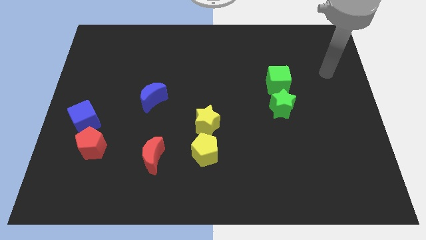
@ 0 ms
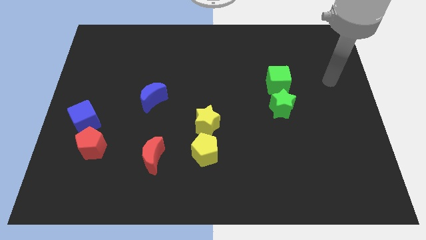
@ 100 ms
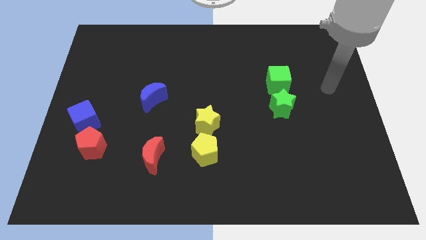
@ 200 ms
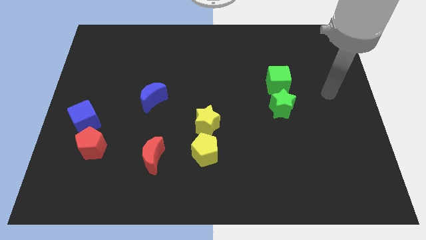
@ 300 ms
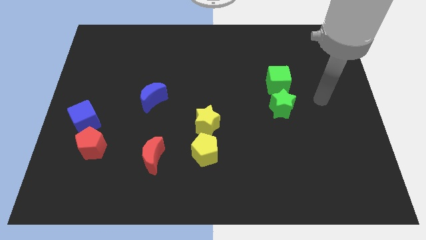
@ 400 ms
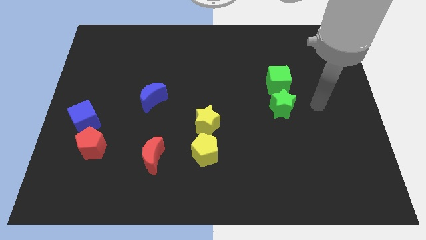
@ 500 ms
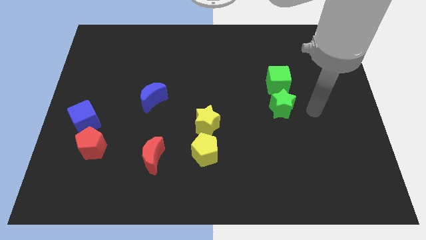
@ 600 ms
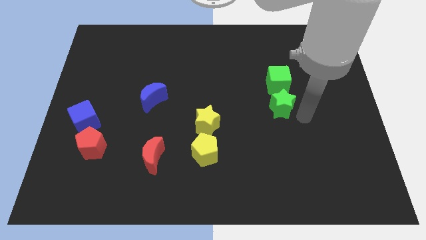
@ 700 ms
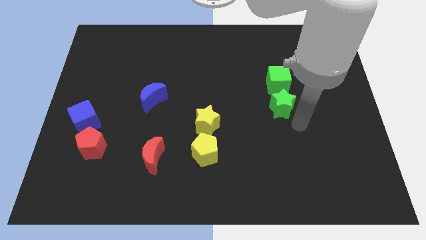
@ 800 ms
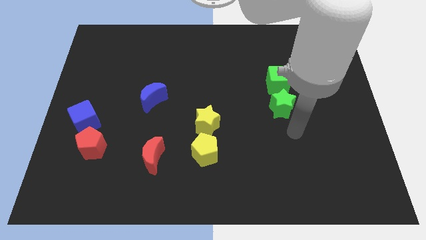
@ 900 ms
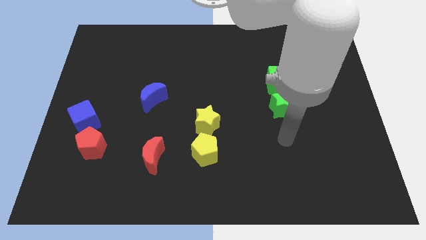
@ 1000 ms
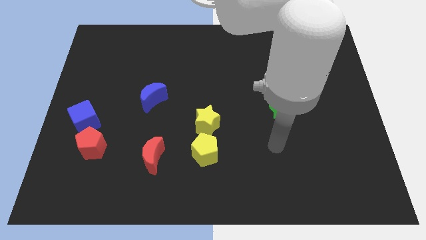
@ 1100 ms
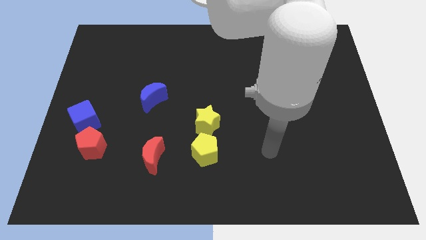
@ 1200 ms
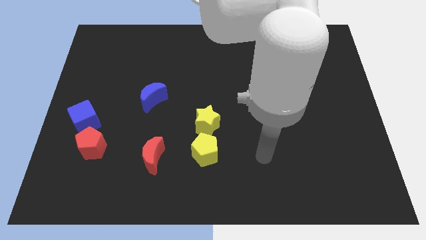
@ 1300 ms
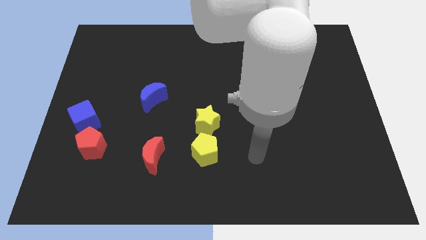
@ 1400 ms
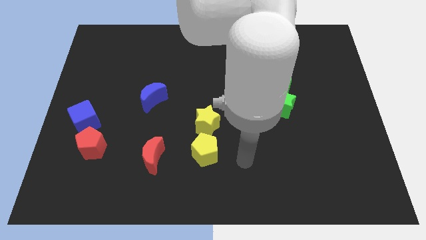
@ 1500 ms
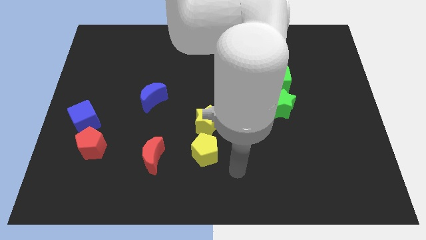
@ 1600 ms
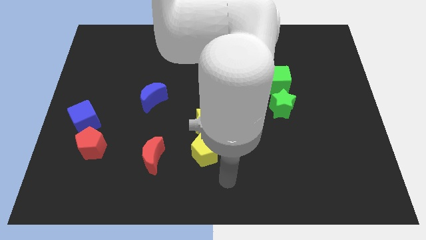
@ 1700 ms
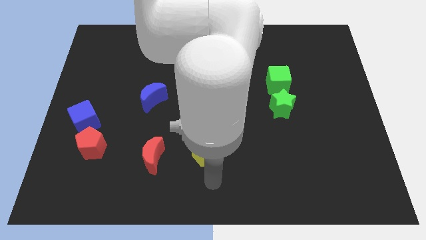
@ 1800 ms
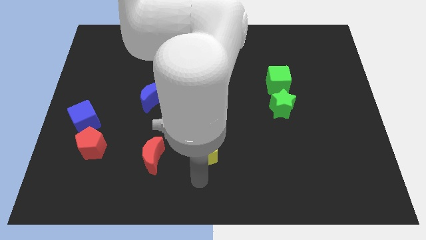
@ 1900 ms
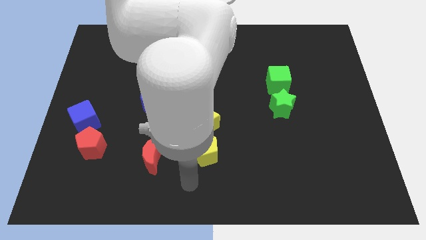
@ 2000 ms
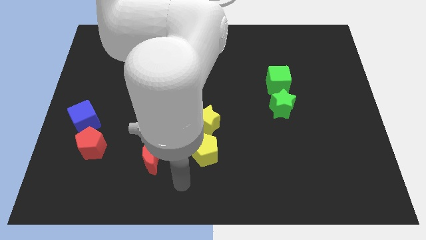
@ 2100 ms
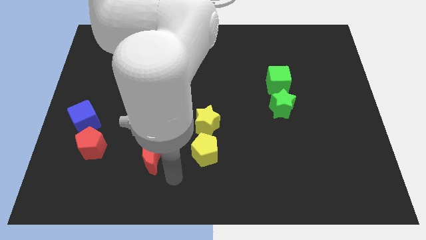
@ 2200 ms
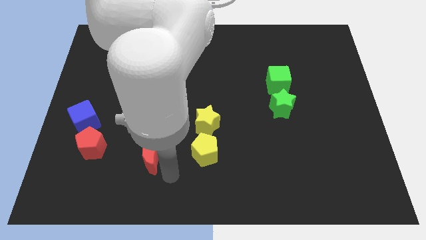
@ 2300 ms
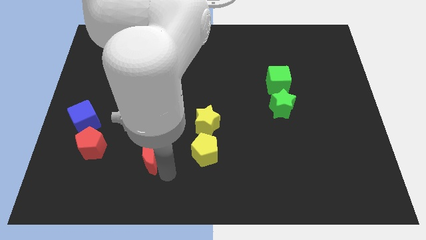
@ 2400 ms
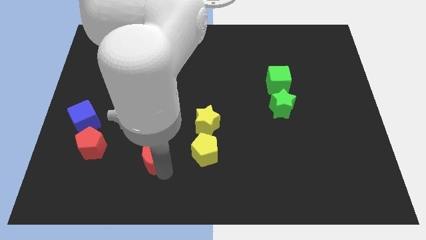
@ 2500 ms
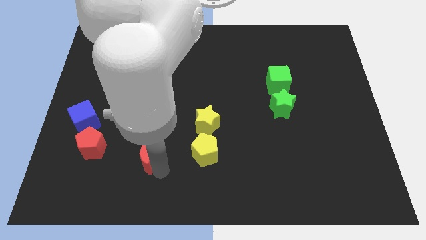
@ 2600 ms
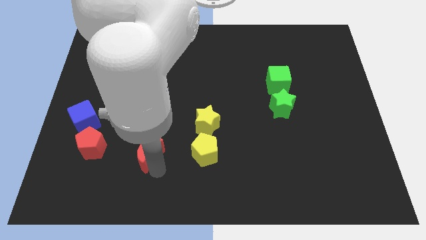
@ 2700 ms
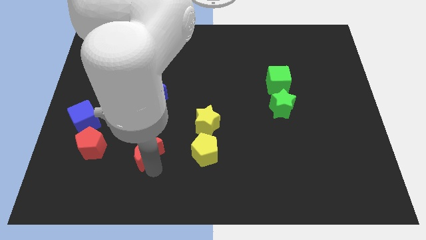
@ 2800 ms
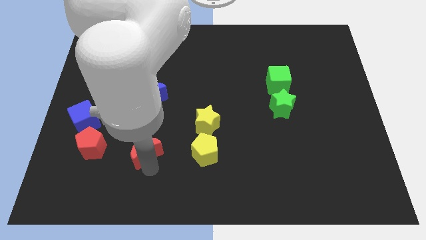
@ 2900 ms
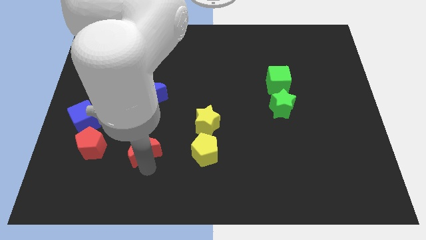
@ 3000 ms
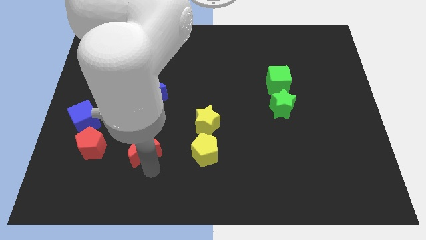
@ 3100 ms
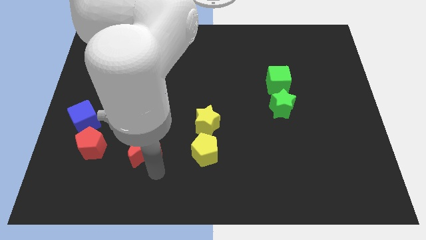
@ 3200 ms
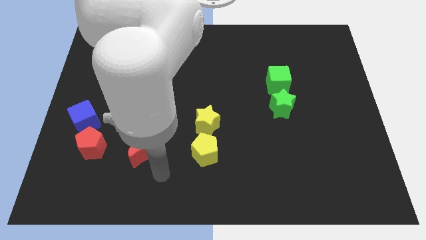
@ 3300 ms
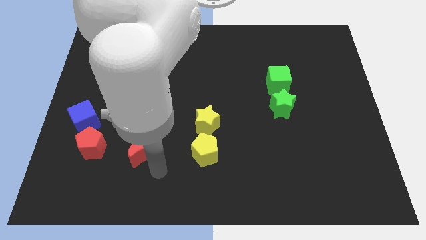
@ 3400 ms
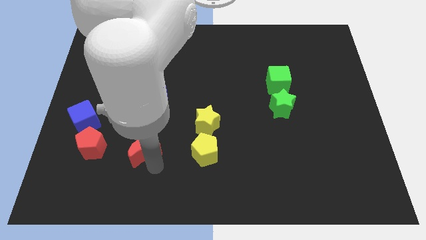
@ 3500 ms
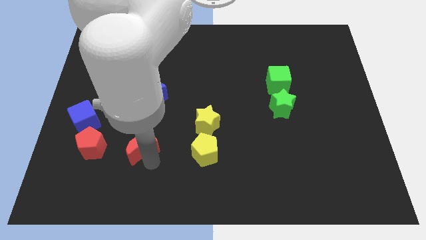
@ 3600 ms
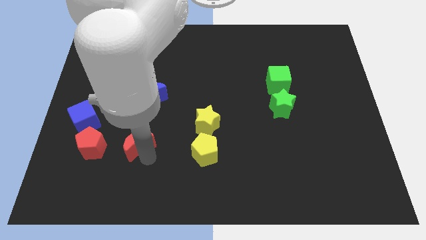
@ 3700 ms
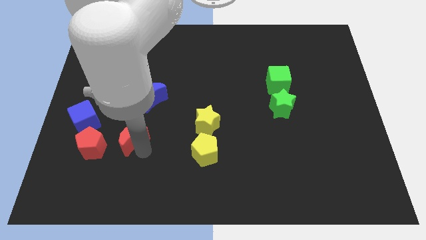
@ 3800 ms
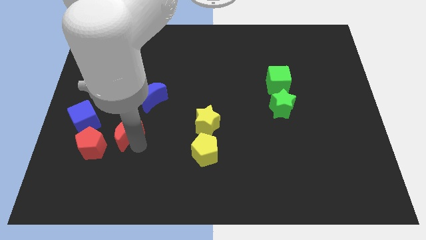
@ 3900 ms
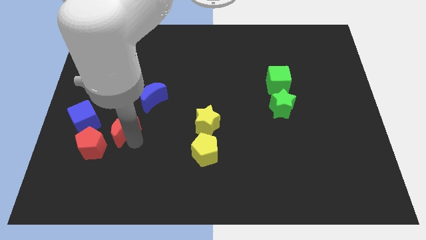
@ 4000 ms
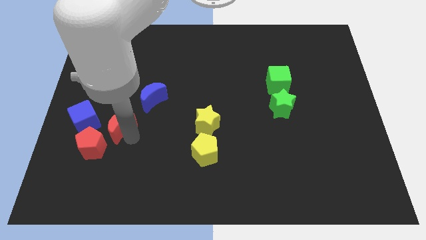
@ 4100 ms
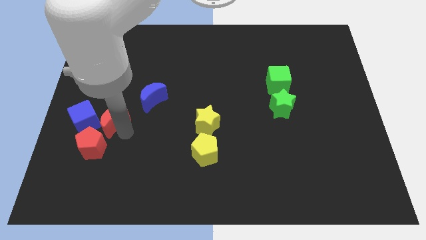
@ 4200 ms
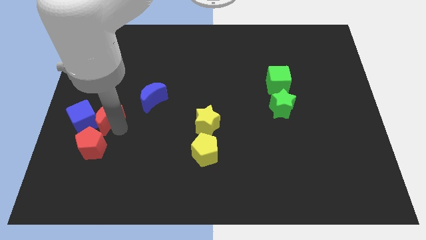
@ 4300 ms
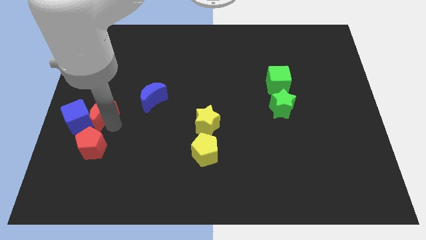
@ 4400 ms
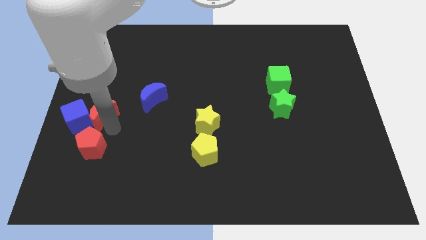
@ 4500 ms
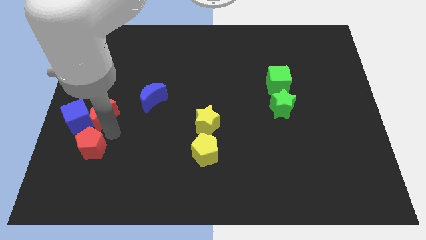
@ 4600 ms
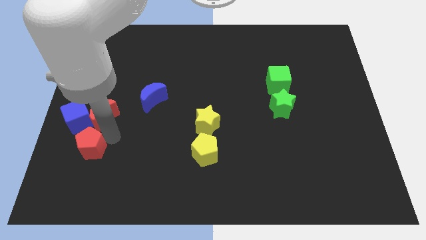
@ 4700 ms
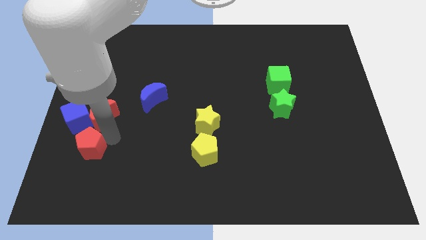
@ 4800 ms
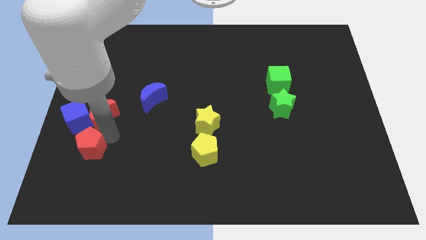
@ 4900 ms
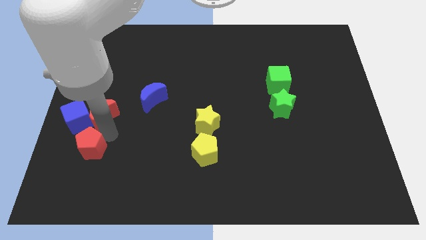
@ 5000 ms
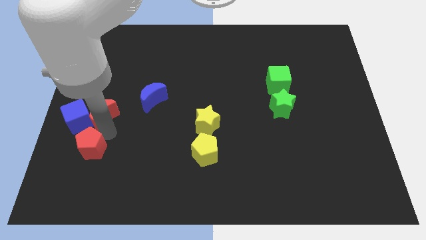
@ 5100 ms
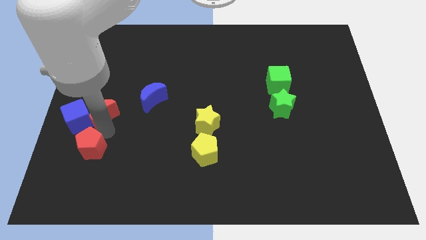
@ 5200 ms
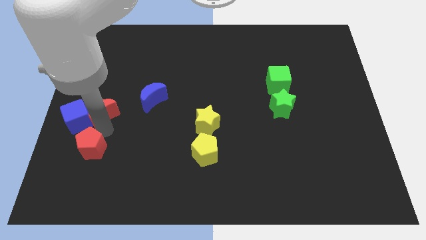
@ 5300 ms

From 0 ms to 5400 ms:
move the red moon to the left side

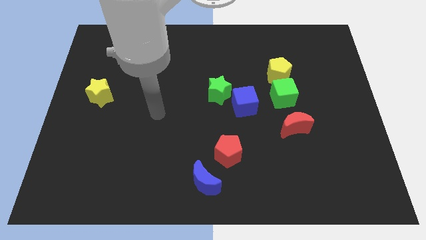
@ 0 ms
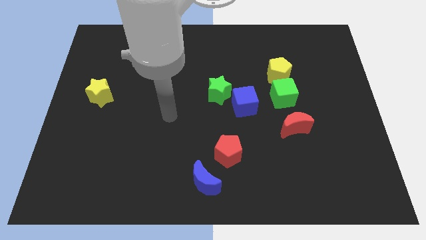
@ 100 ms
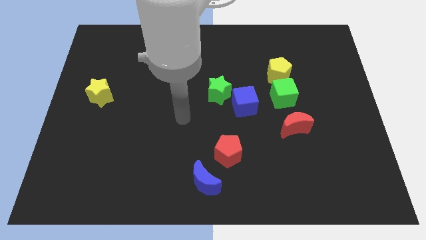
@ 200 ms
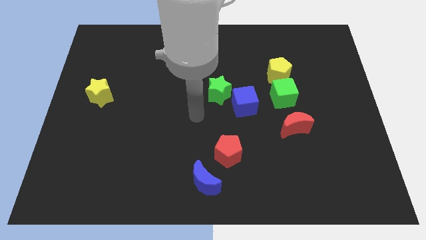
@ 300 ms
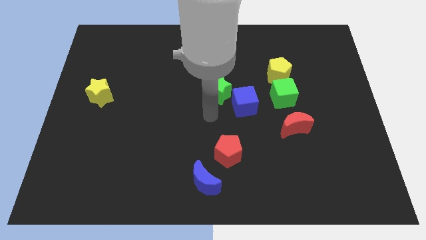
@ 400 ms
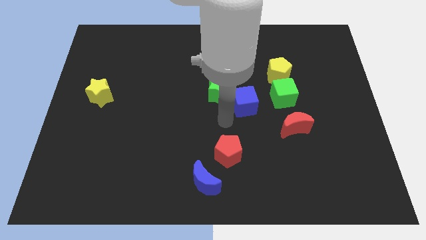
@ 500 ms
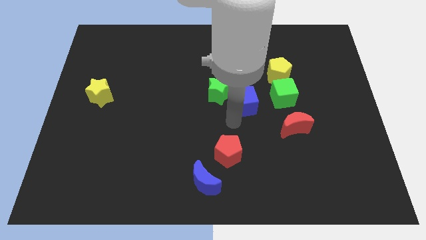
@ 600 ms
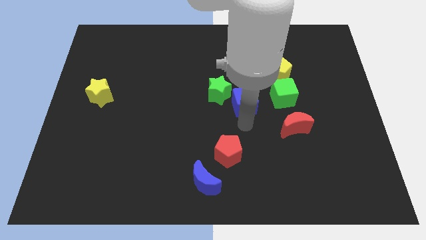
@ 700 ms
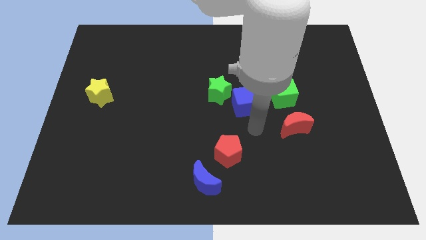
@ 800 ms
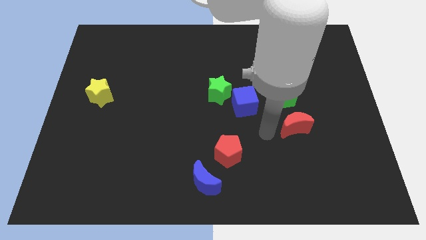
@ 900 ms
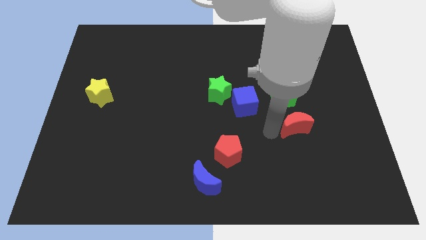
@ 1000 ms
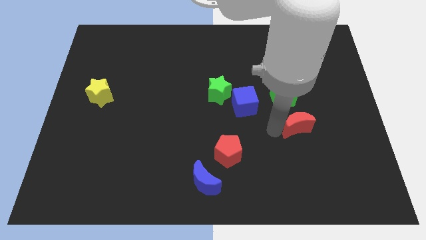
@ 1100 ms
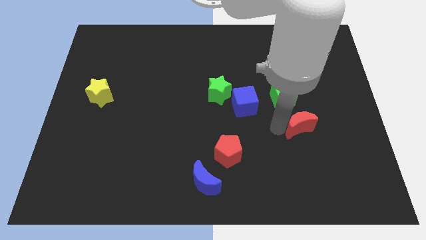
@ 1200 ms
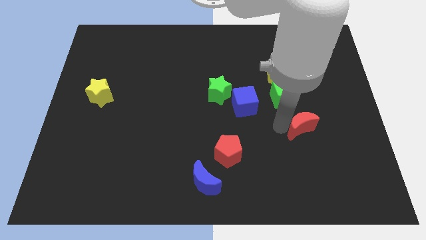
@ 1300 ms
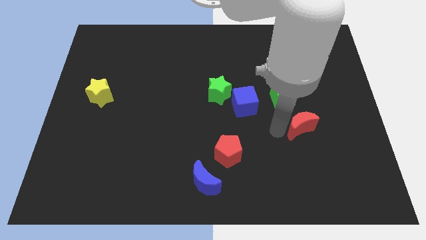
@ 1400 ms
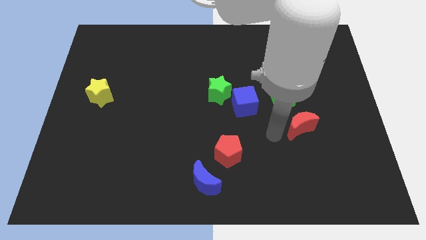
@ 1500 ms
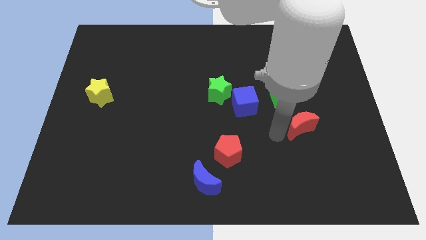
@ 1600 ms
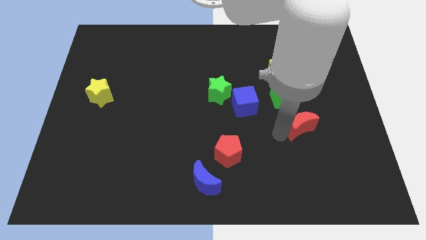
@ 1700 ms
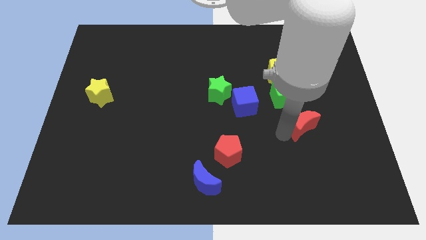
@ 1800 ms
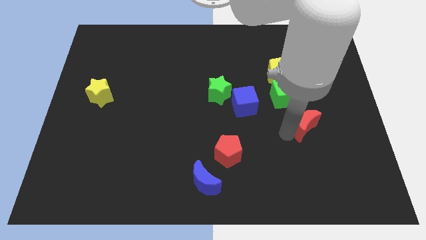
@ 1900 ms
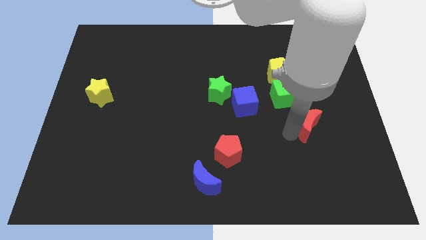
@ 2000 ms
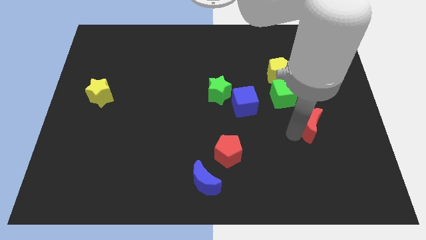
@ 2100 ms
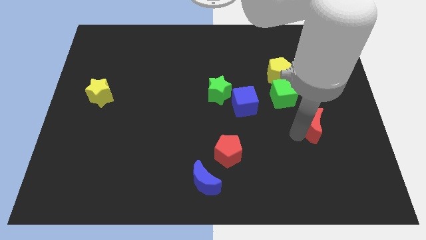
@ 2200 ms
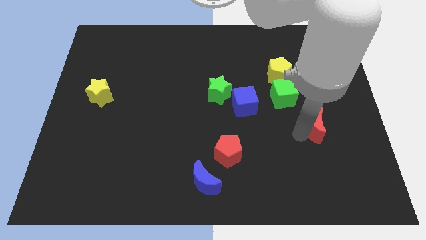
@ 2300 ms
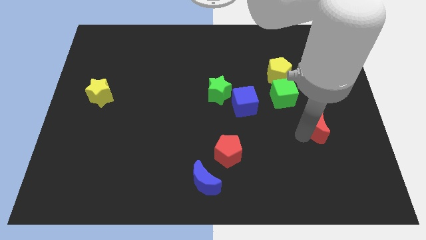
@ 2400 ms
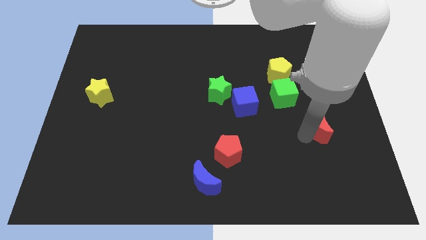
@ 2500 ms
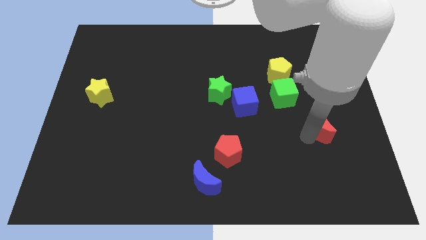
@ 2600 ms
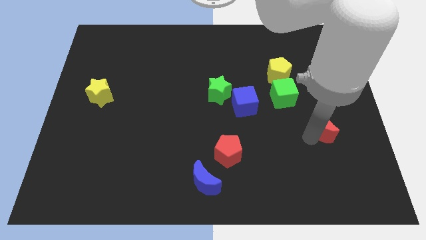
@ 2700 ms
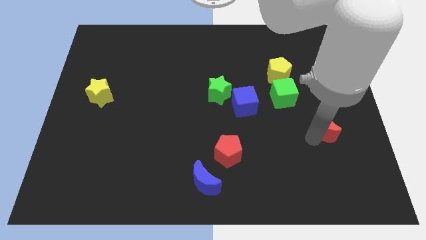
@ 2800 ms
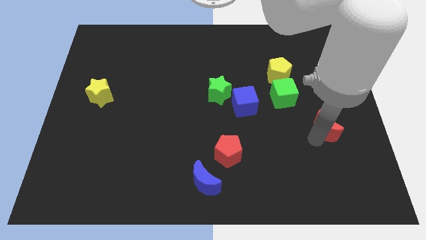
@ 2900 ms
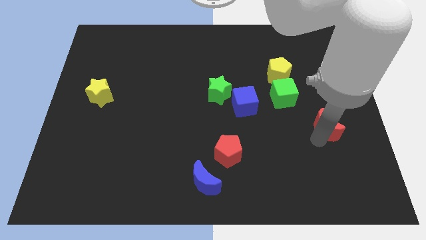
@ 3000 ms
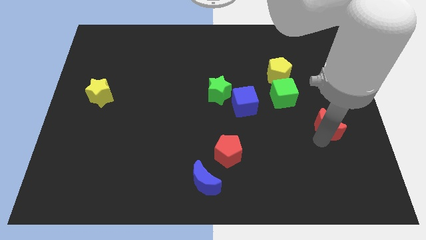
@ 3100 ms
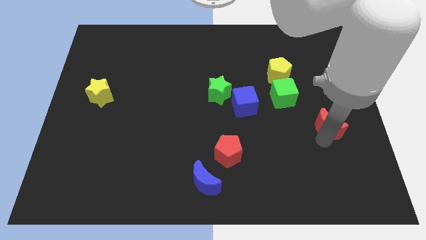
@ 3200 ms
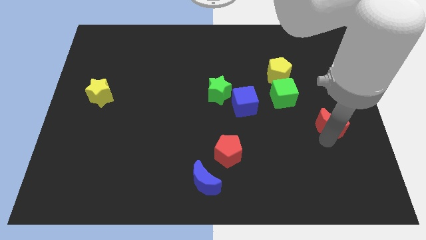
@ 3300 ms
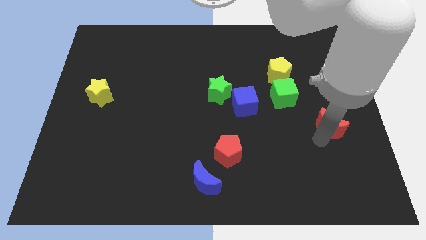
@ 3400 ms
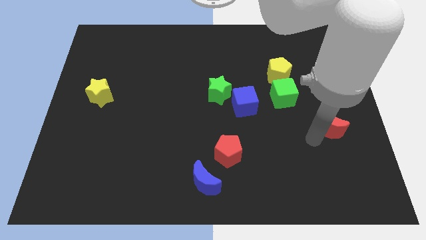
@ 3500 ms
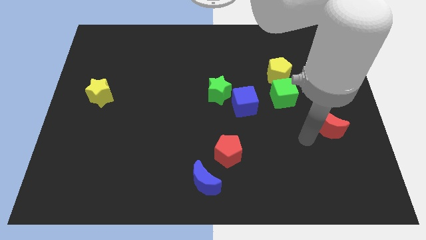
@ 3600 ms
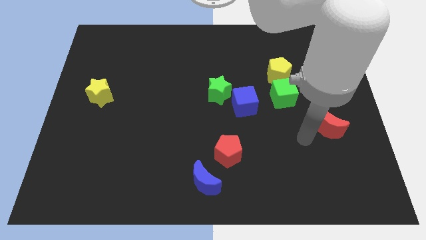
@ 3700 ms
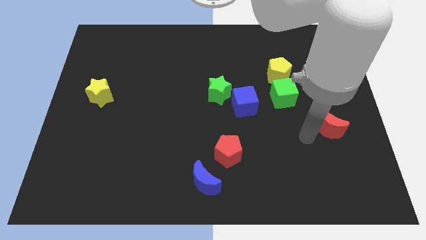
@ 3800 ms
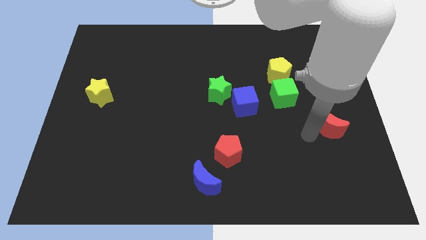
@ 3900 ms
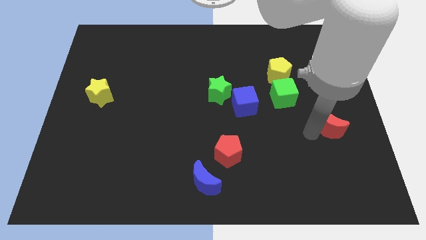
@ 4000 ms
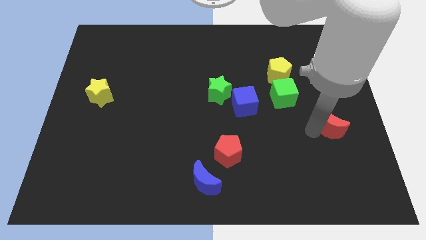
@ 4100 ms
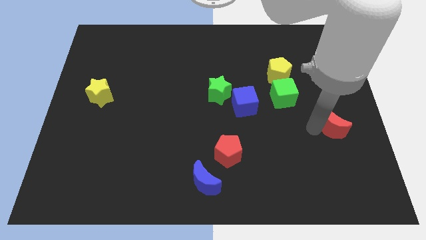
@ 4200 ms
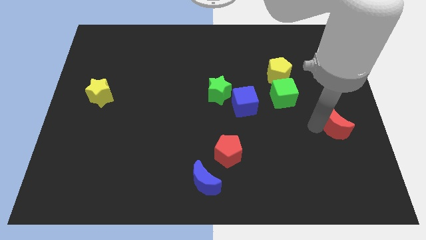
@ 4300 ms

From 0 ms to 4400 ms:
push the red moon to the center right
